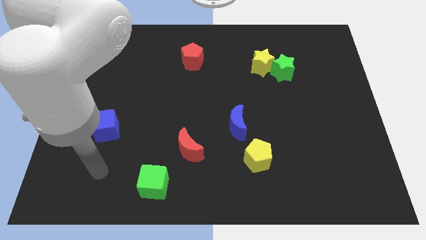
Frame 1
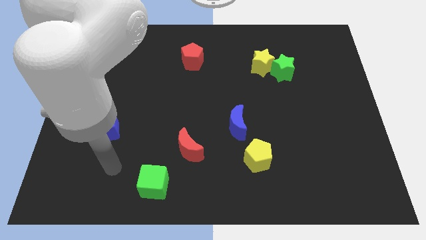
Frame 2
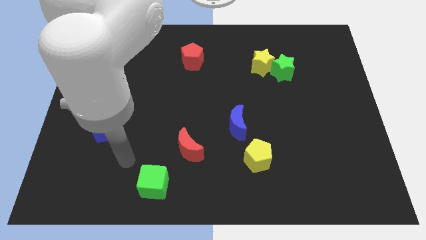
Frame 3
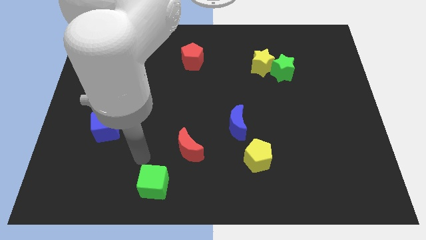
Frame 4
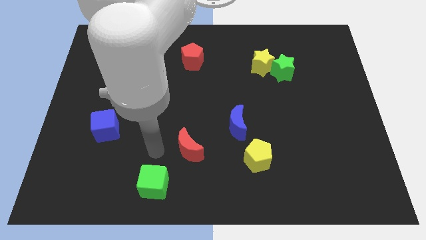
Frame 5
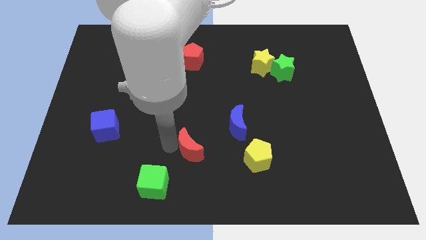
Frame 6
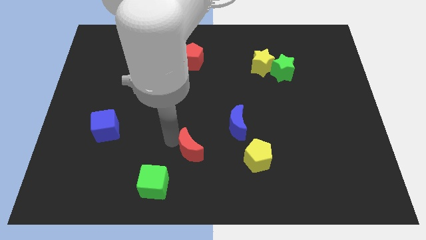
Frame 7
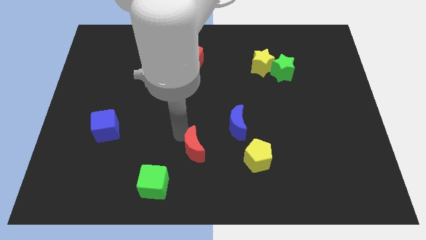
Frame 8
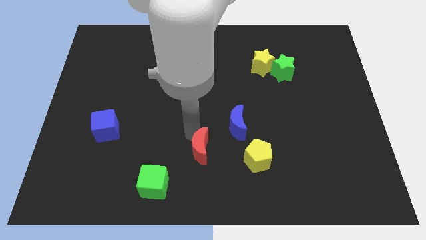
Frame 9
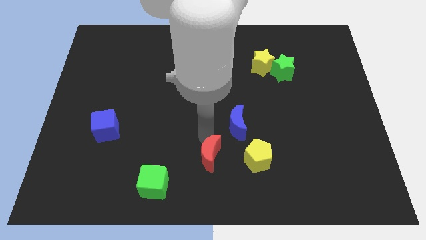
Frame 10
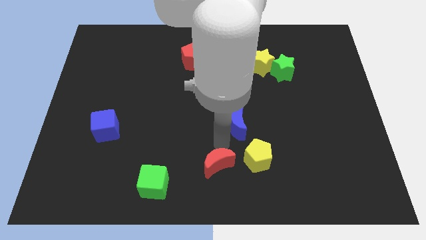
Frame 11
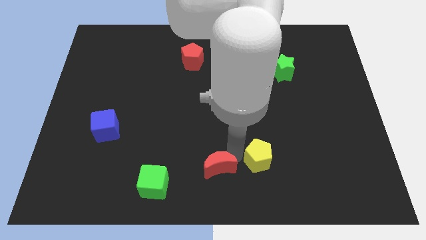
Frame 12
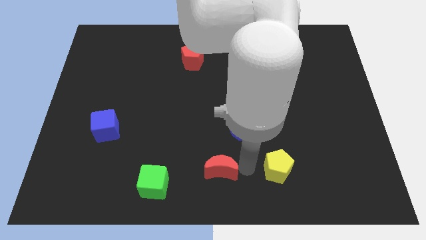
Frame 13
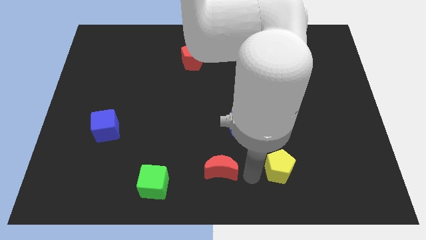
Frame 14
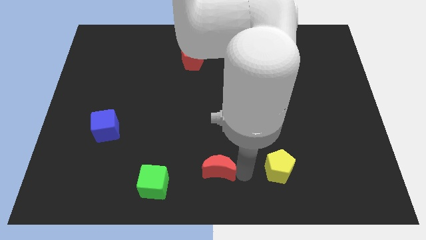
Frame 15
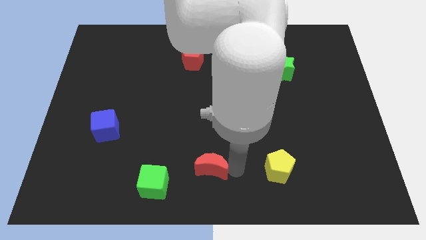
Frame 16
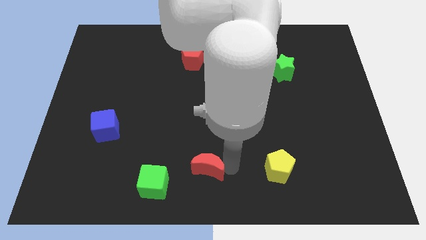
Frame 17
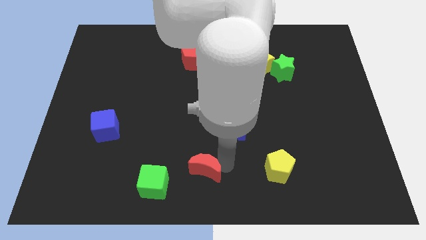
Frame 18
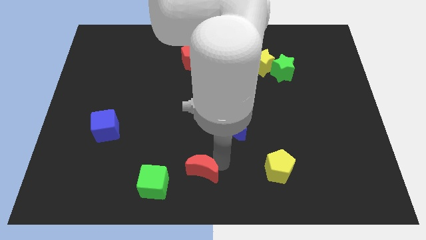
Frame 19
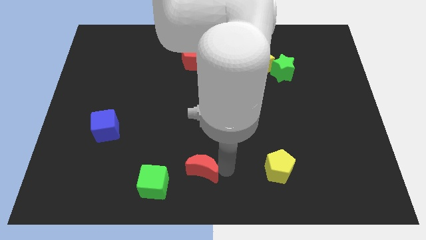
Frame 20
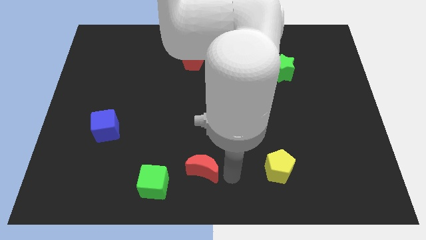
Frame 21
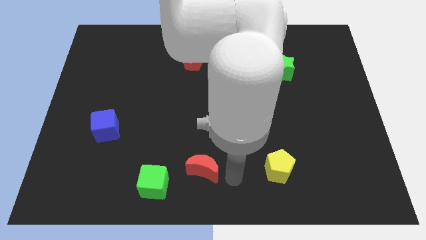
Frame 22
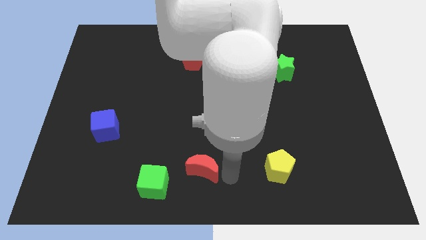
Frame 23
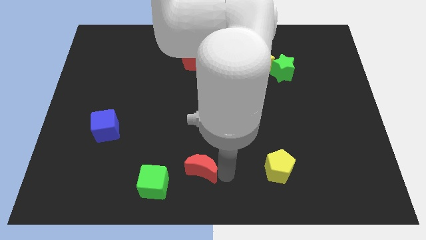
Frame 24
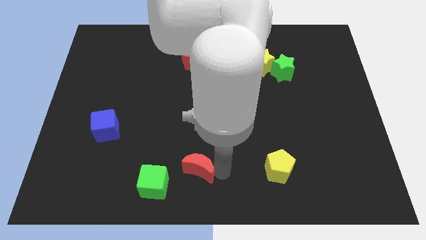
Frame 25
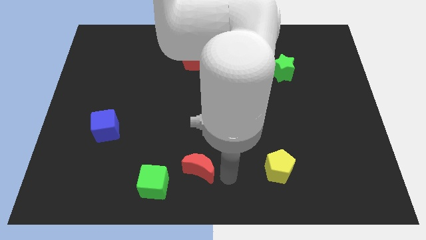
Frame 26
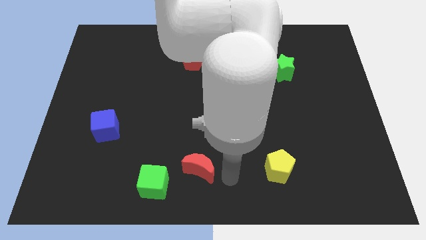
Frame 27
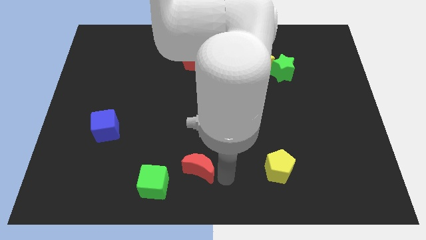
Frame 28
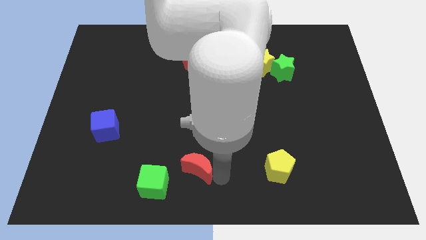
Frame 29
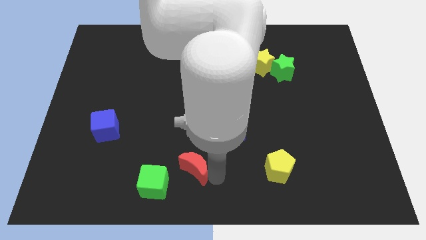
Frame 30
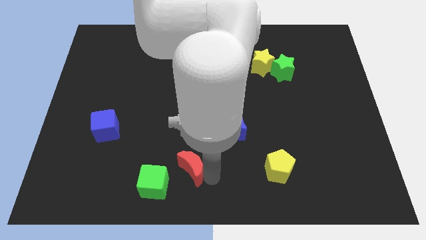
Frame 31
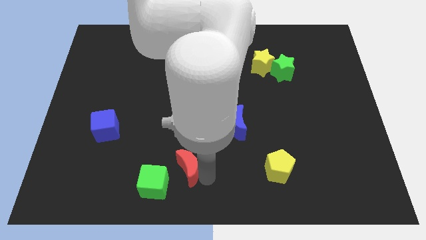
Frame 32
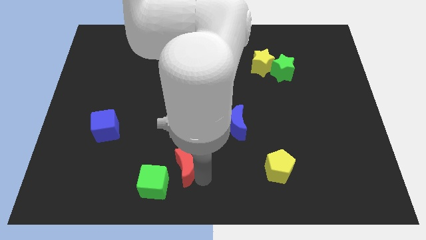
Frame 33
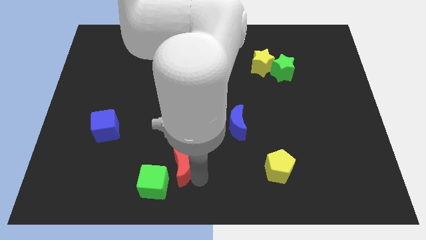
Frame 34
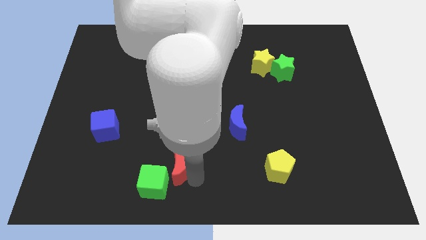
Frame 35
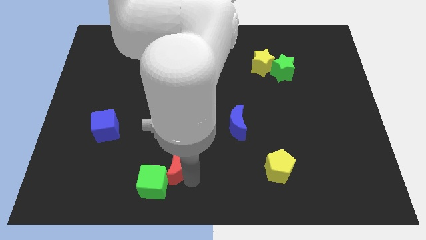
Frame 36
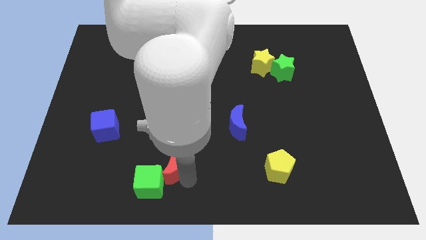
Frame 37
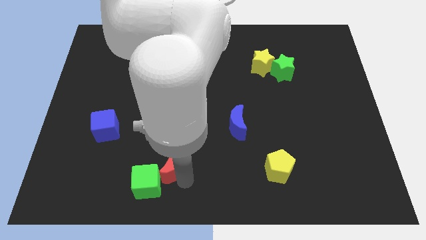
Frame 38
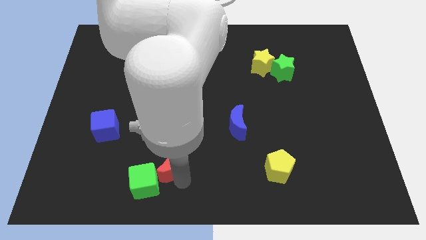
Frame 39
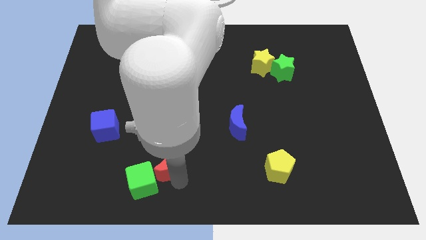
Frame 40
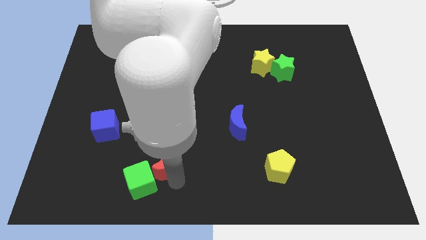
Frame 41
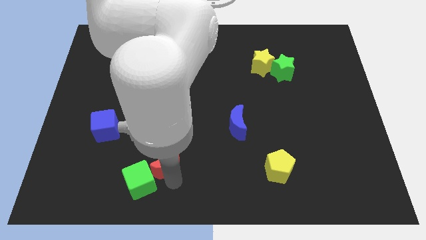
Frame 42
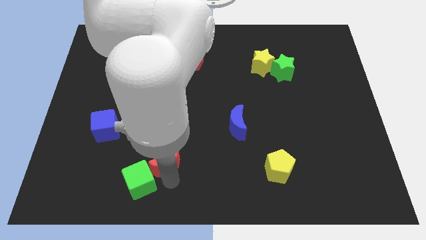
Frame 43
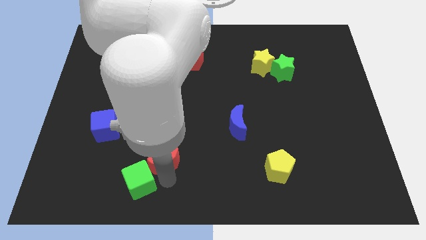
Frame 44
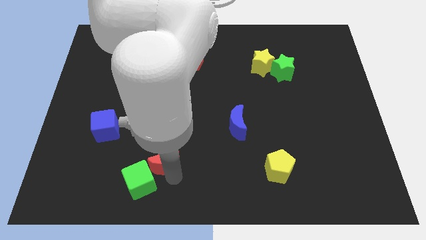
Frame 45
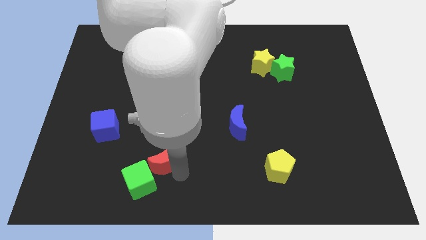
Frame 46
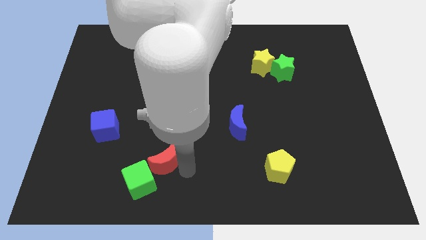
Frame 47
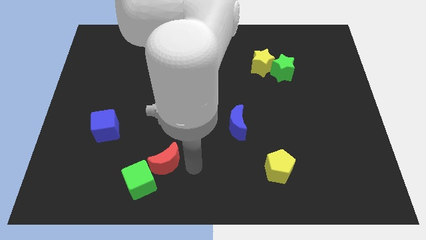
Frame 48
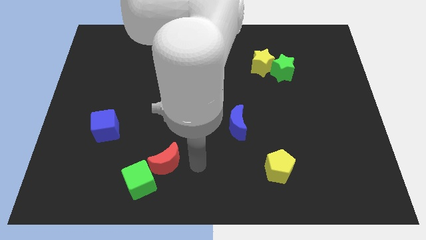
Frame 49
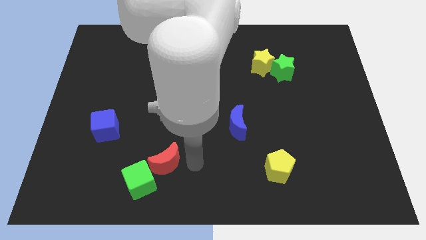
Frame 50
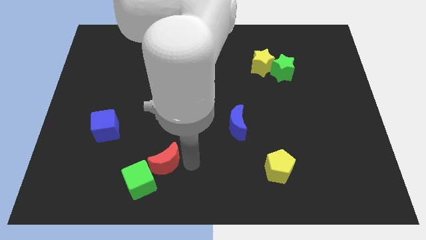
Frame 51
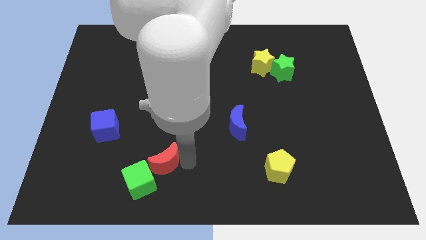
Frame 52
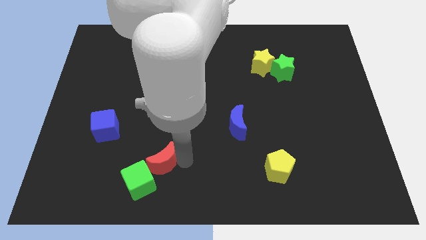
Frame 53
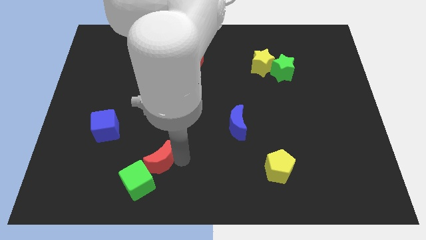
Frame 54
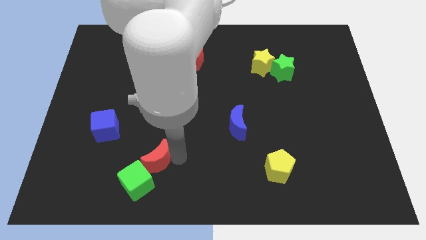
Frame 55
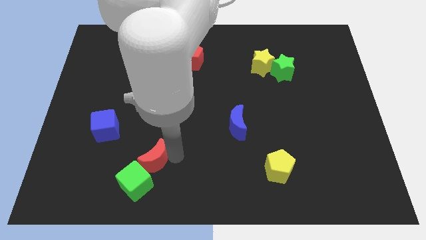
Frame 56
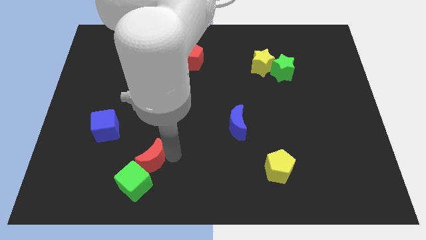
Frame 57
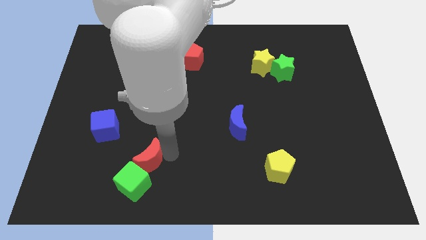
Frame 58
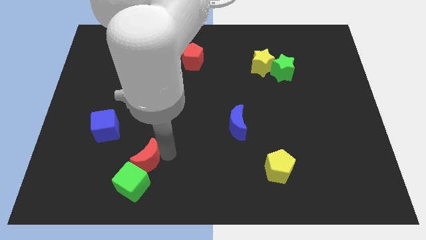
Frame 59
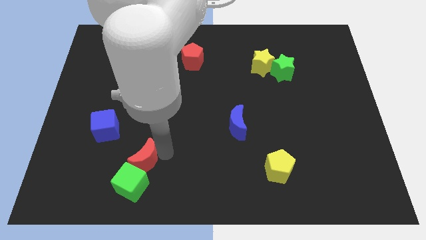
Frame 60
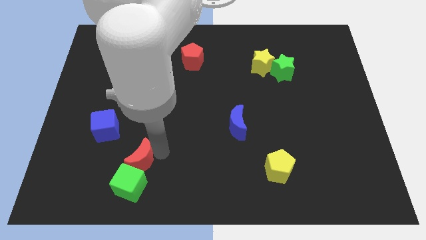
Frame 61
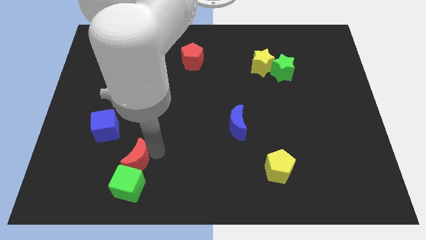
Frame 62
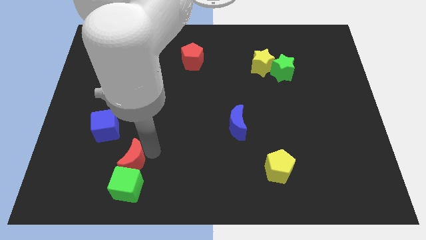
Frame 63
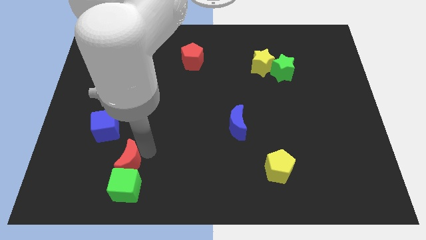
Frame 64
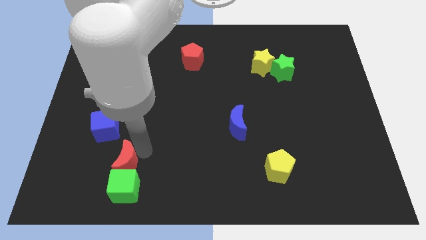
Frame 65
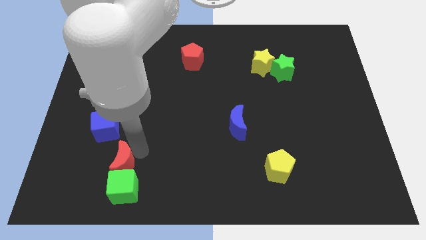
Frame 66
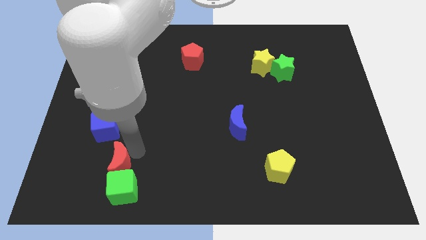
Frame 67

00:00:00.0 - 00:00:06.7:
slide the red moon to the bottom of the blue cube

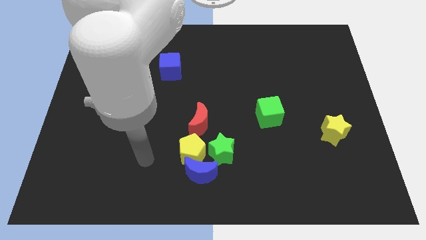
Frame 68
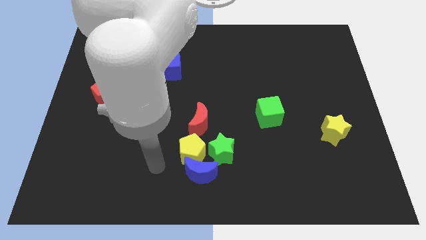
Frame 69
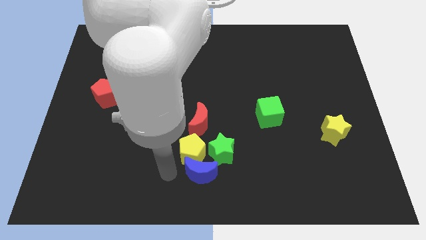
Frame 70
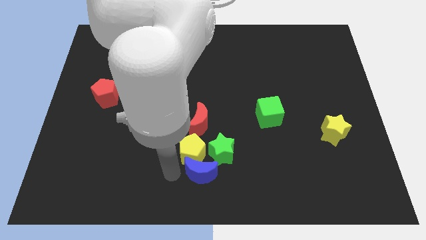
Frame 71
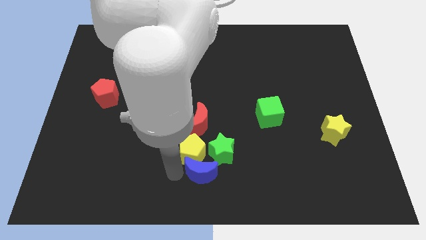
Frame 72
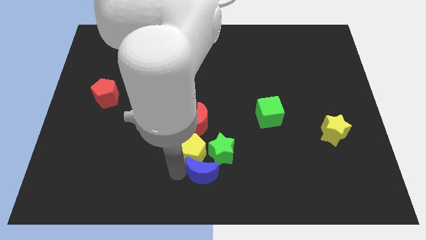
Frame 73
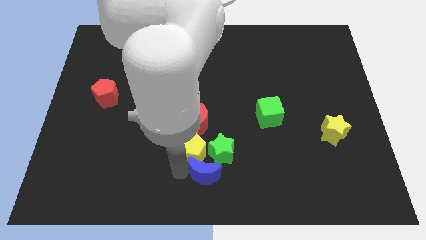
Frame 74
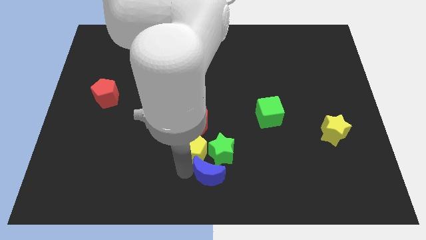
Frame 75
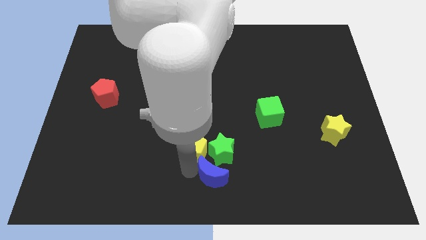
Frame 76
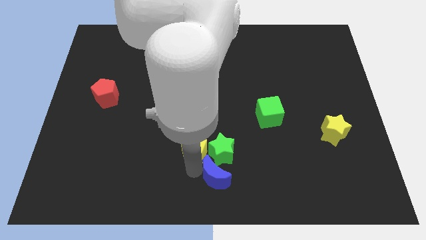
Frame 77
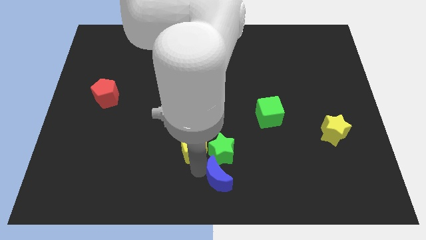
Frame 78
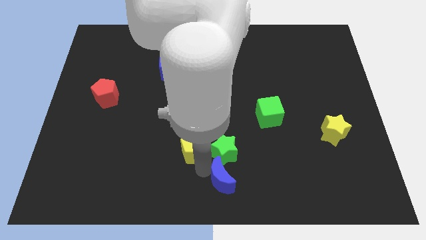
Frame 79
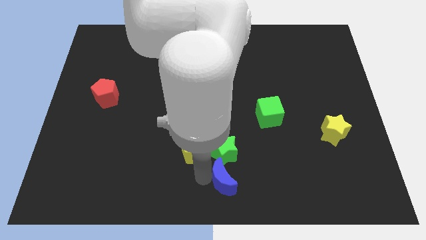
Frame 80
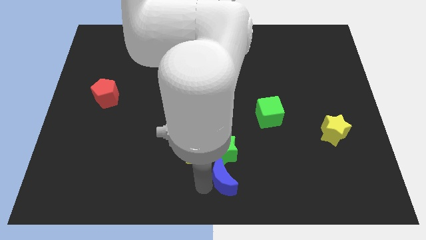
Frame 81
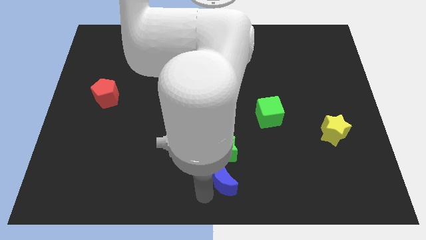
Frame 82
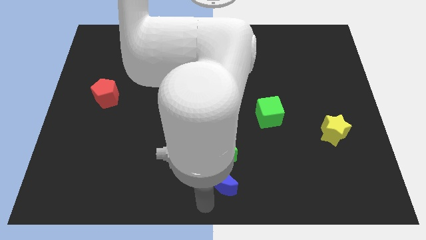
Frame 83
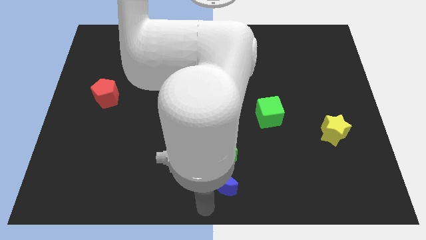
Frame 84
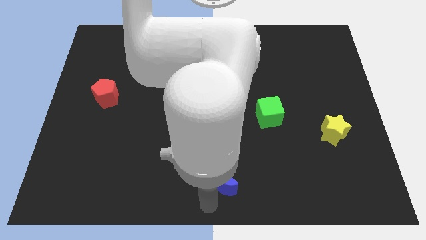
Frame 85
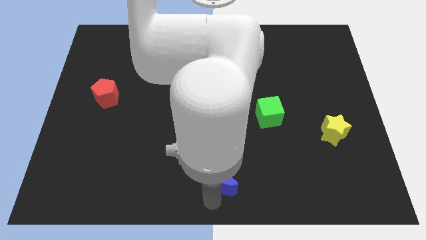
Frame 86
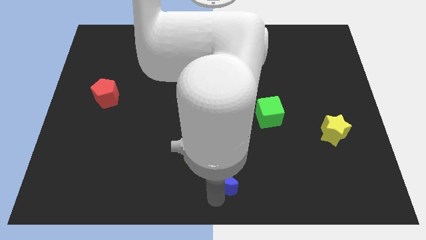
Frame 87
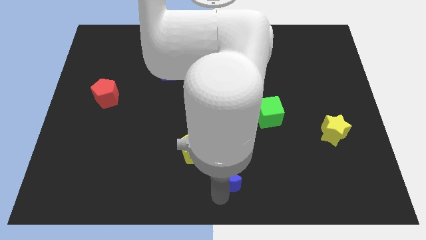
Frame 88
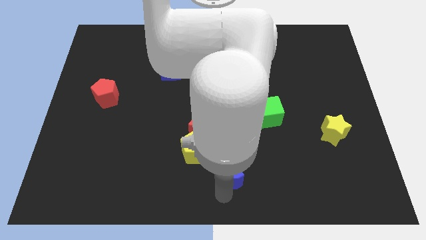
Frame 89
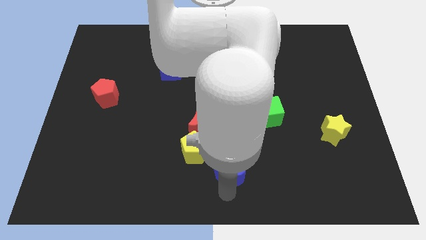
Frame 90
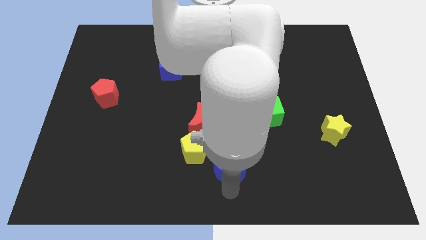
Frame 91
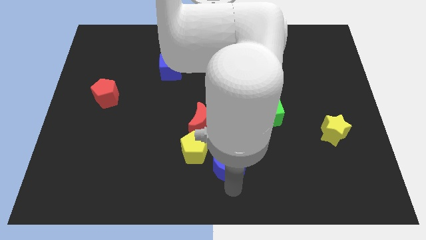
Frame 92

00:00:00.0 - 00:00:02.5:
push the blue moon to the right side of the yellow pentagon
